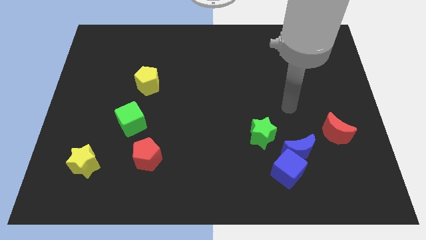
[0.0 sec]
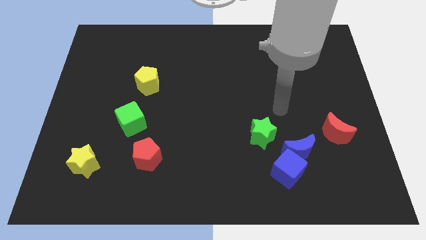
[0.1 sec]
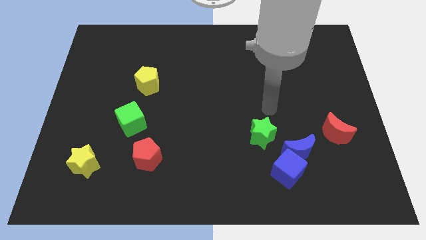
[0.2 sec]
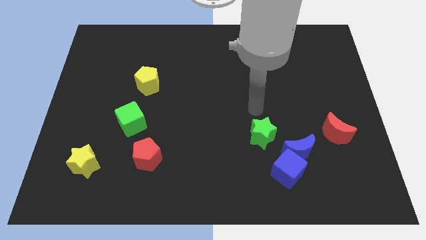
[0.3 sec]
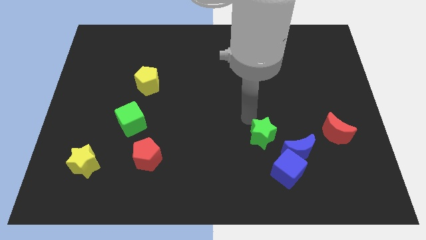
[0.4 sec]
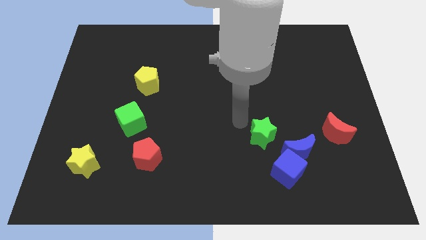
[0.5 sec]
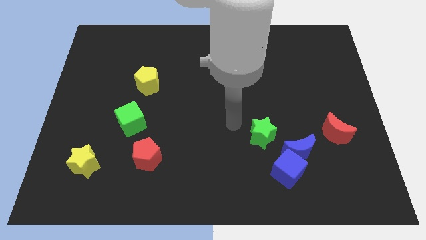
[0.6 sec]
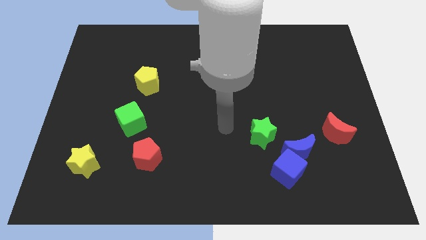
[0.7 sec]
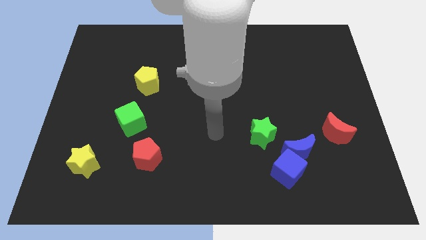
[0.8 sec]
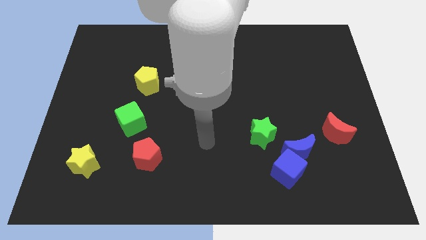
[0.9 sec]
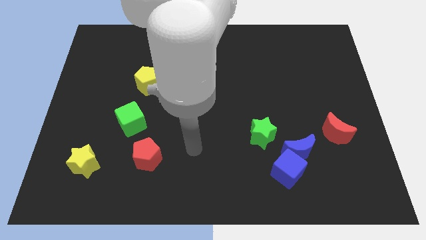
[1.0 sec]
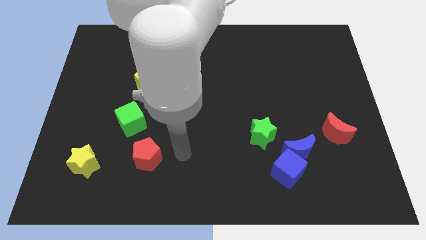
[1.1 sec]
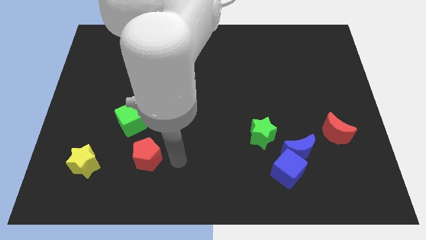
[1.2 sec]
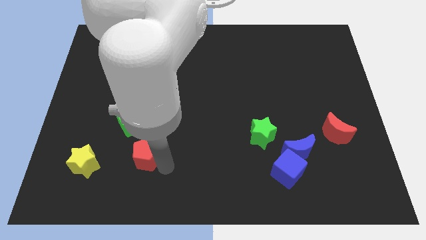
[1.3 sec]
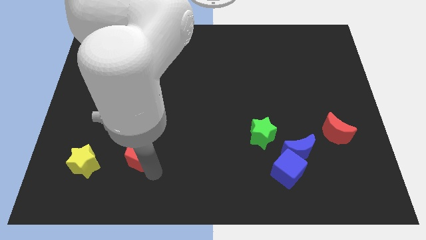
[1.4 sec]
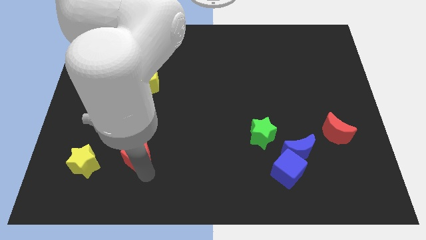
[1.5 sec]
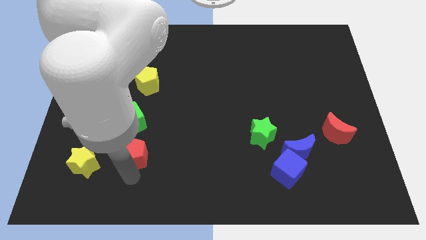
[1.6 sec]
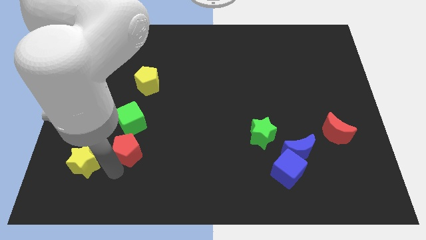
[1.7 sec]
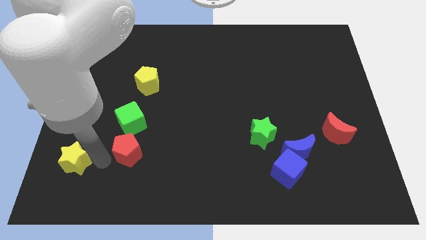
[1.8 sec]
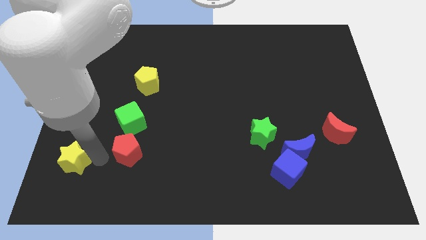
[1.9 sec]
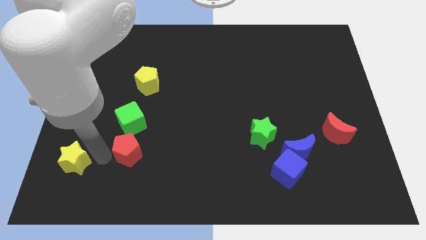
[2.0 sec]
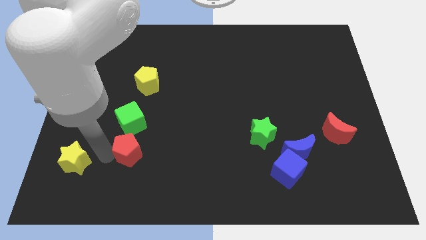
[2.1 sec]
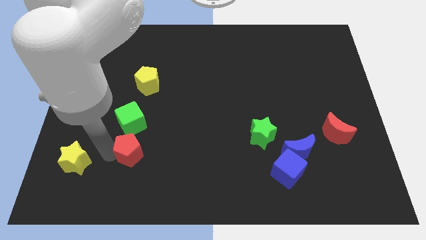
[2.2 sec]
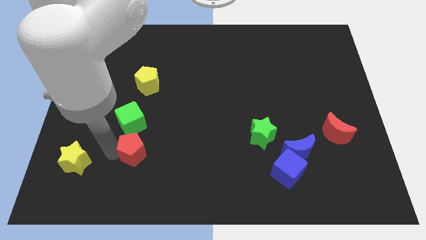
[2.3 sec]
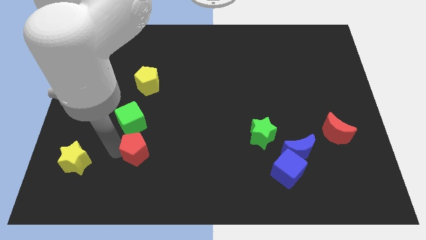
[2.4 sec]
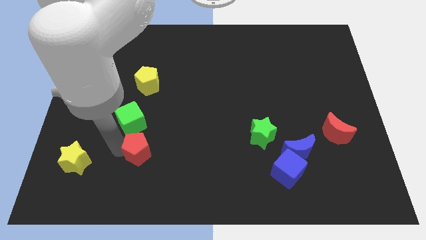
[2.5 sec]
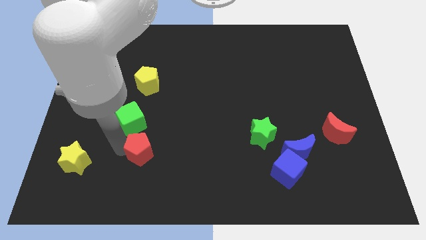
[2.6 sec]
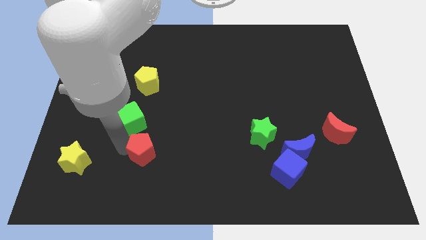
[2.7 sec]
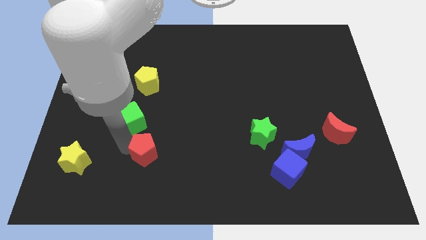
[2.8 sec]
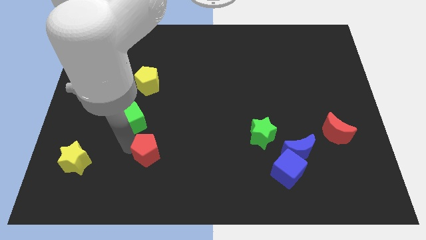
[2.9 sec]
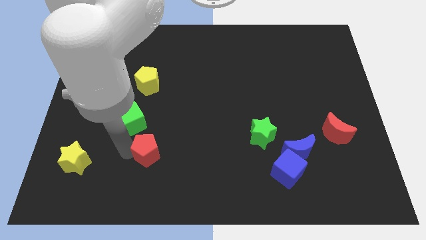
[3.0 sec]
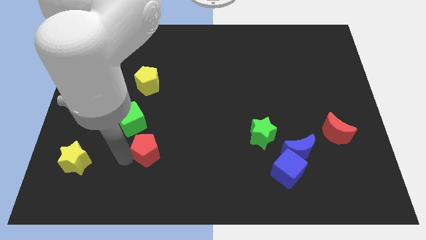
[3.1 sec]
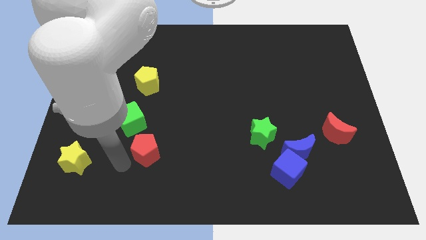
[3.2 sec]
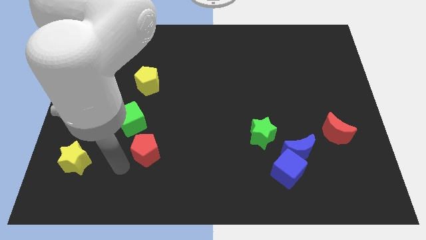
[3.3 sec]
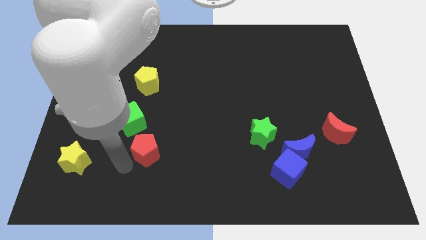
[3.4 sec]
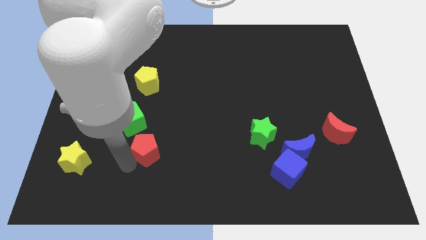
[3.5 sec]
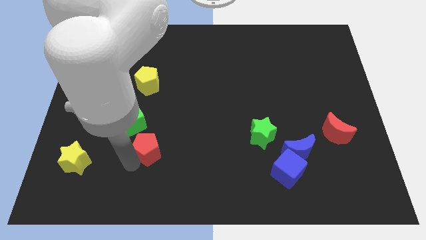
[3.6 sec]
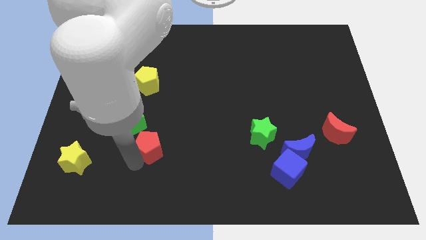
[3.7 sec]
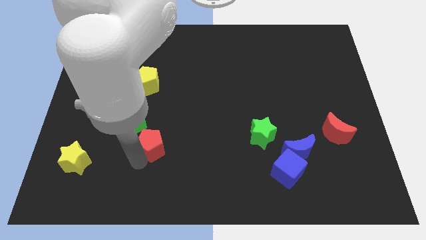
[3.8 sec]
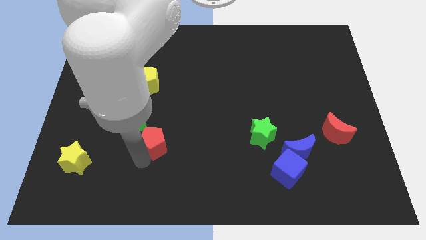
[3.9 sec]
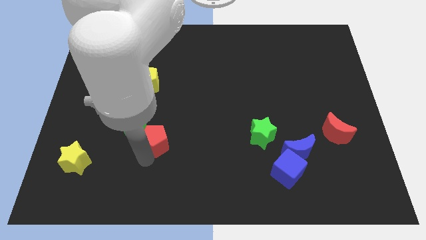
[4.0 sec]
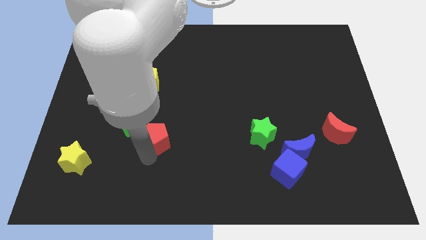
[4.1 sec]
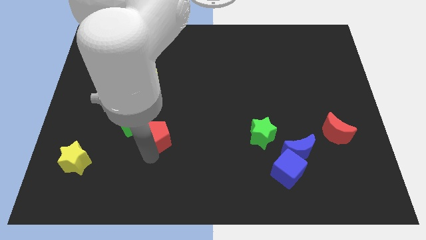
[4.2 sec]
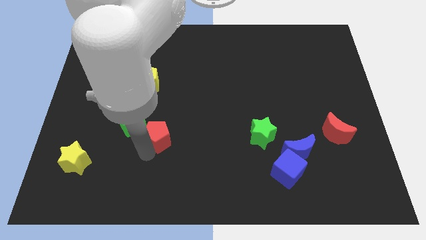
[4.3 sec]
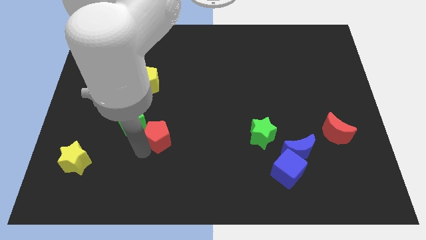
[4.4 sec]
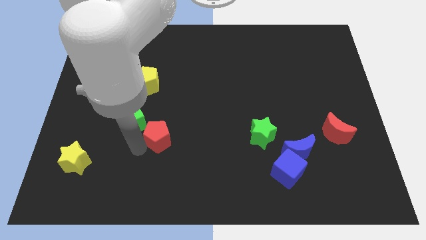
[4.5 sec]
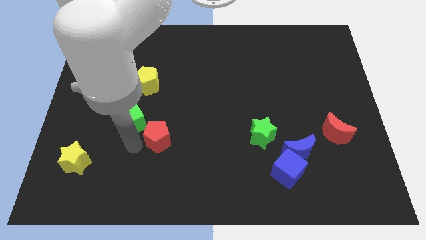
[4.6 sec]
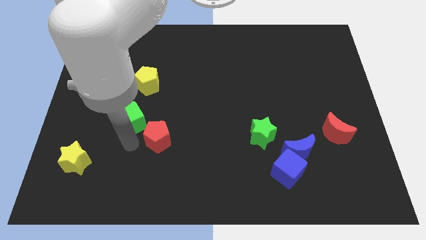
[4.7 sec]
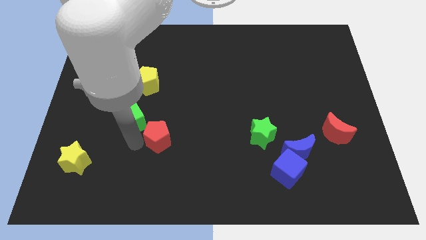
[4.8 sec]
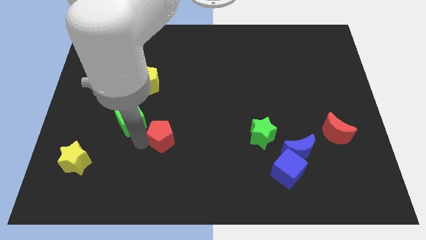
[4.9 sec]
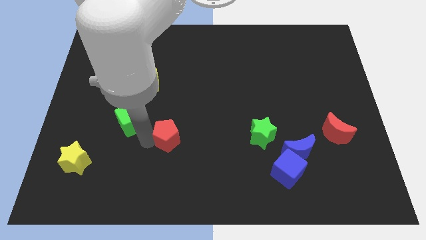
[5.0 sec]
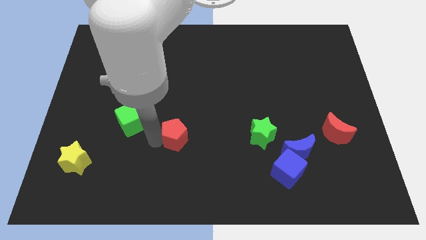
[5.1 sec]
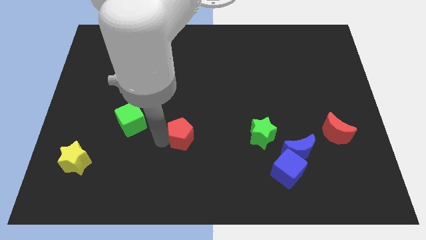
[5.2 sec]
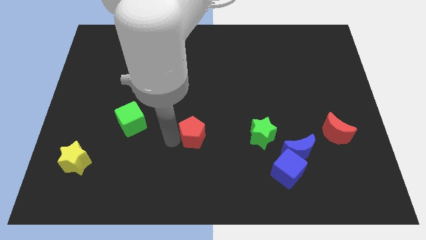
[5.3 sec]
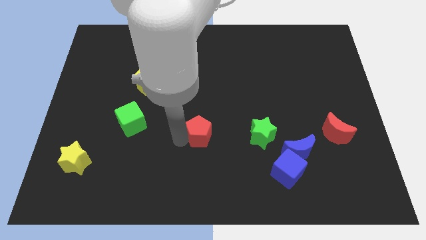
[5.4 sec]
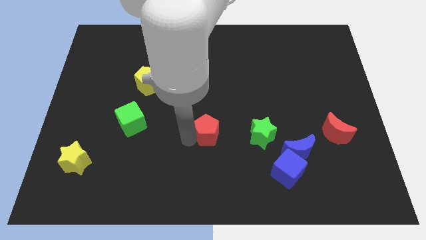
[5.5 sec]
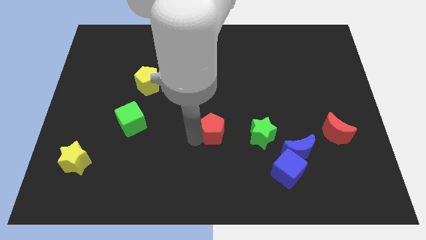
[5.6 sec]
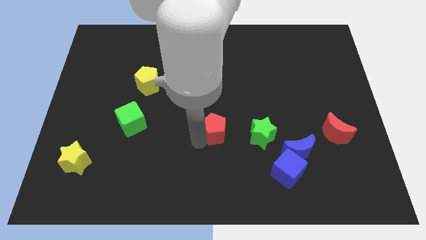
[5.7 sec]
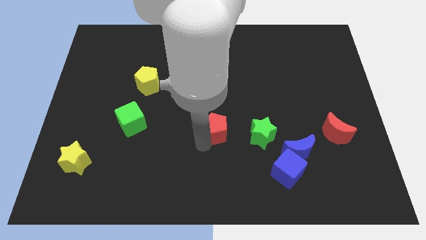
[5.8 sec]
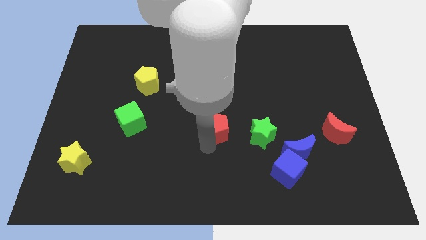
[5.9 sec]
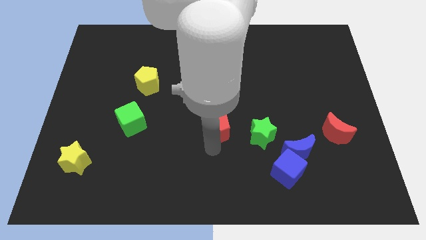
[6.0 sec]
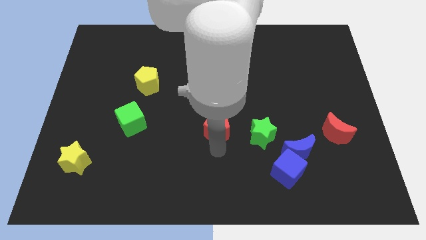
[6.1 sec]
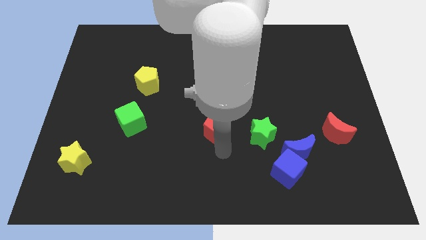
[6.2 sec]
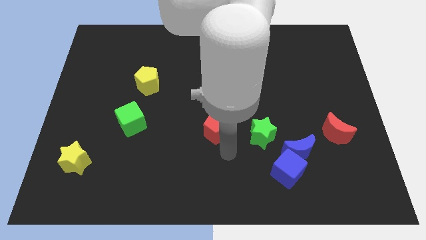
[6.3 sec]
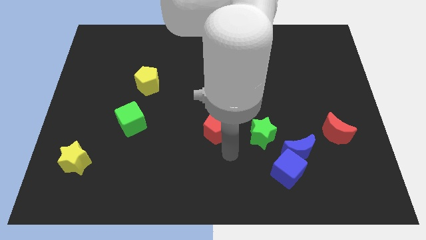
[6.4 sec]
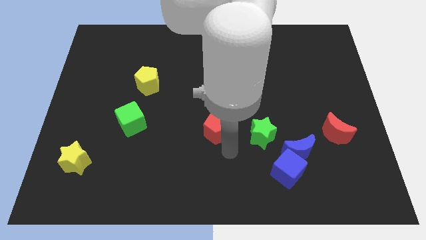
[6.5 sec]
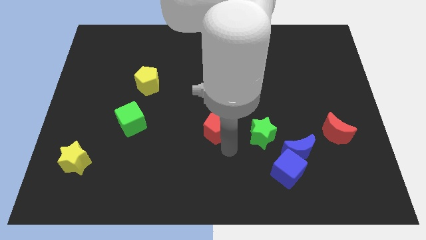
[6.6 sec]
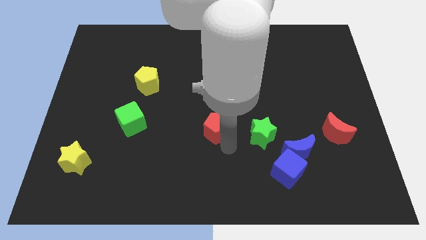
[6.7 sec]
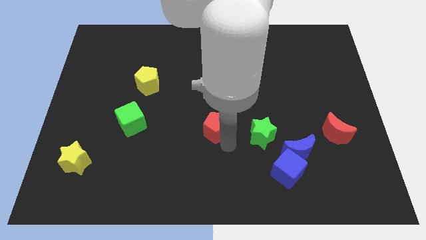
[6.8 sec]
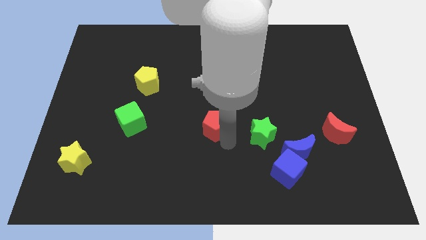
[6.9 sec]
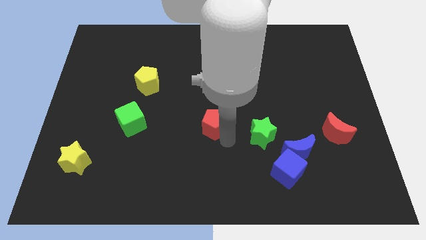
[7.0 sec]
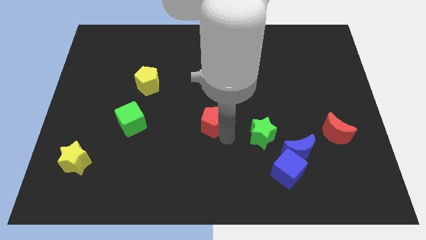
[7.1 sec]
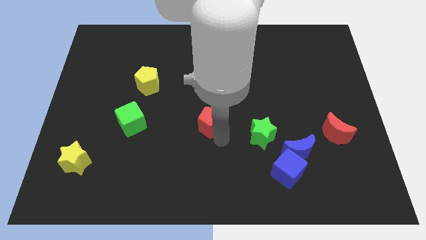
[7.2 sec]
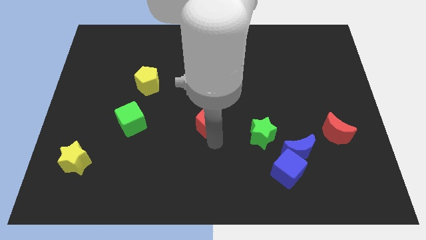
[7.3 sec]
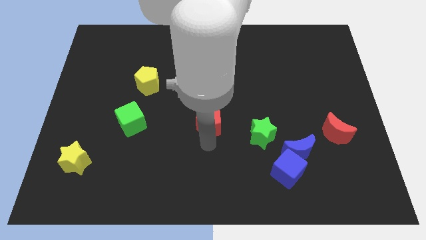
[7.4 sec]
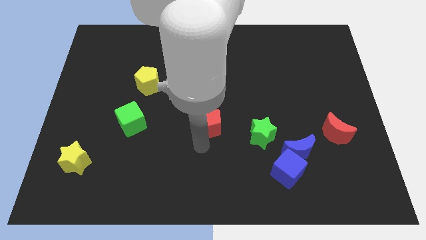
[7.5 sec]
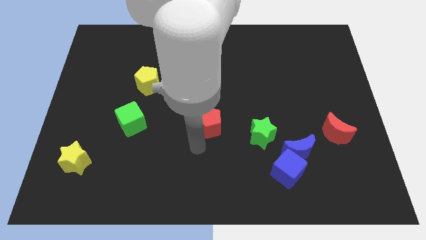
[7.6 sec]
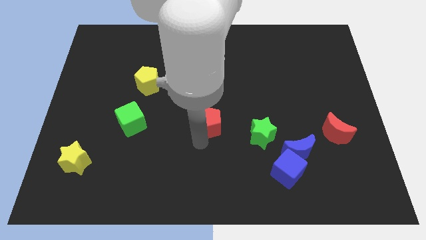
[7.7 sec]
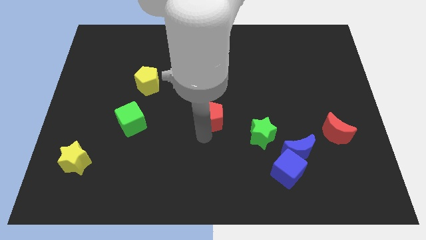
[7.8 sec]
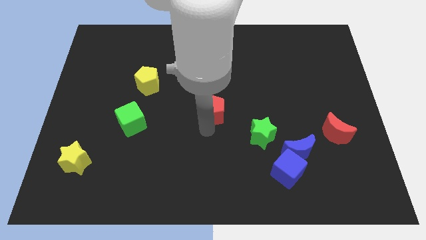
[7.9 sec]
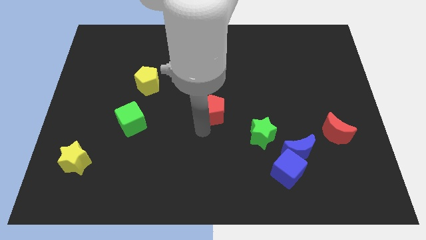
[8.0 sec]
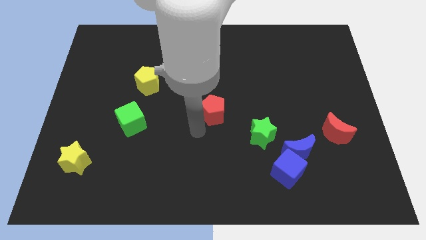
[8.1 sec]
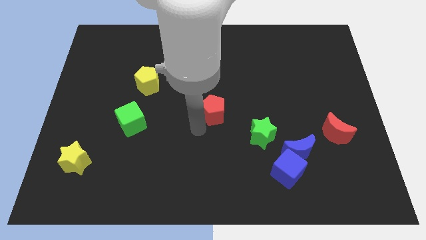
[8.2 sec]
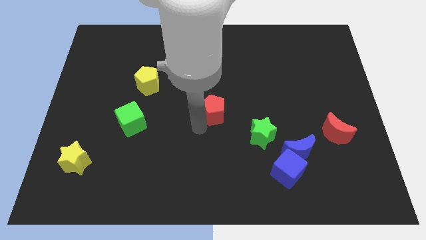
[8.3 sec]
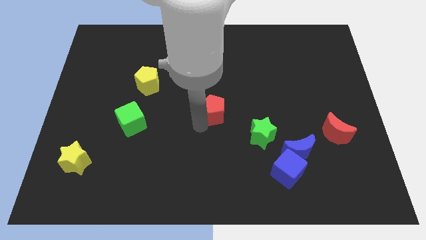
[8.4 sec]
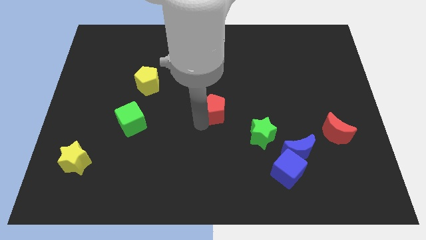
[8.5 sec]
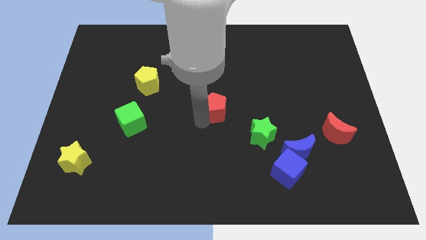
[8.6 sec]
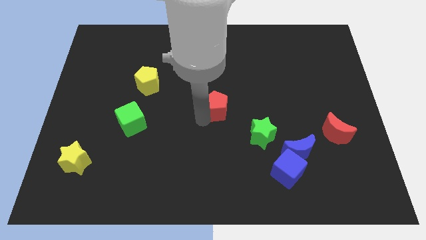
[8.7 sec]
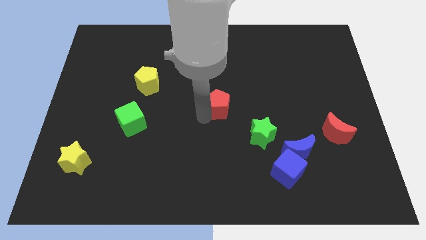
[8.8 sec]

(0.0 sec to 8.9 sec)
move the red pentagon upwards and then to the right
